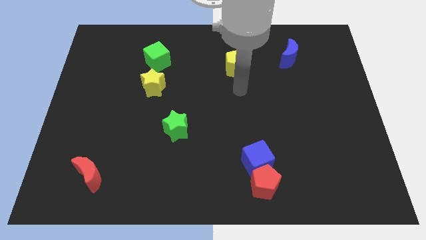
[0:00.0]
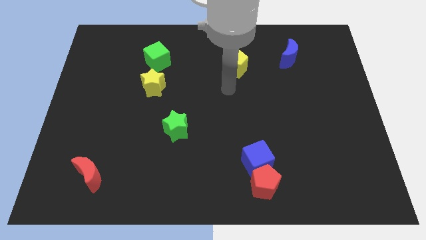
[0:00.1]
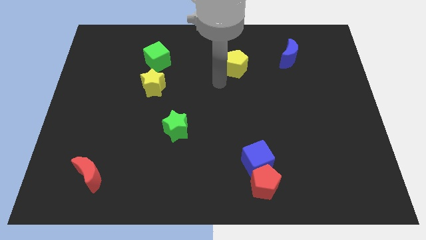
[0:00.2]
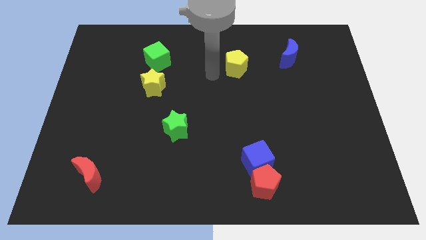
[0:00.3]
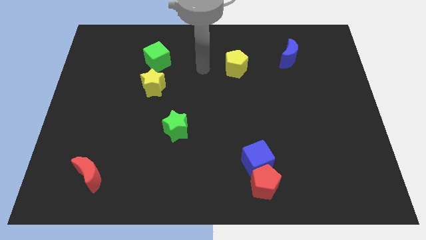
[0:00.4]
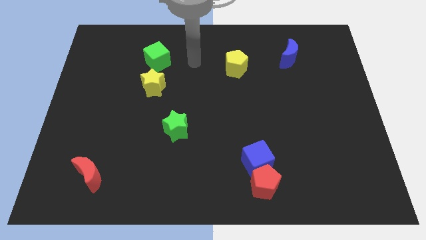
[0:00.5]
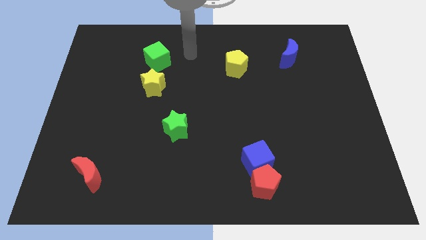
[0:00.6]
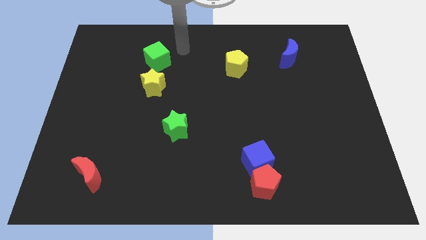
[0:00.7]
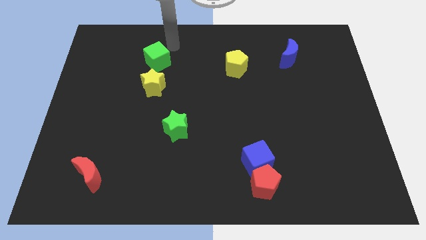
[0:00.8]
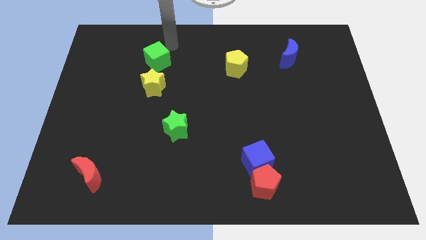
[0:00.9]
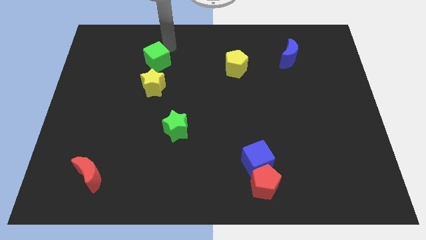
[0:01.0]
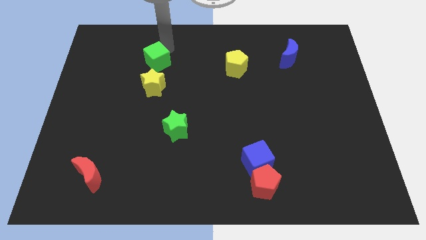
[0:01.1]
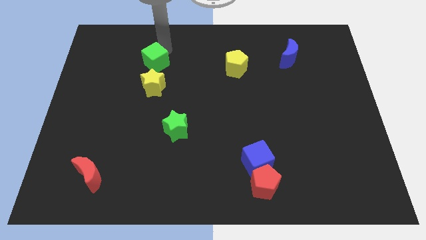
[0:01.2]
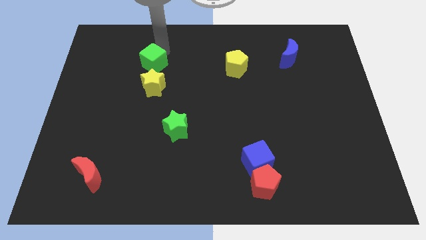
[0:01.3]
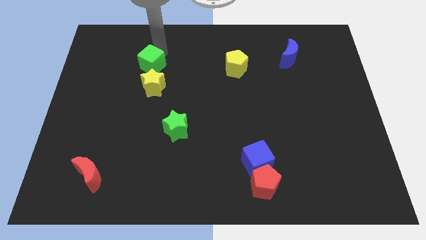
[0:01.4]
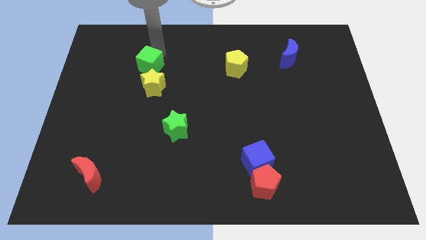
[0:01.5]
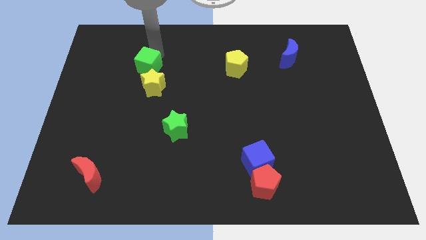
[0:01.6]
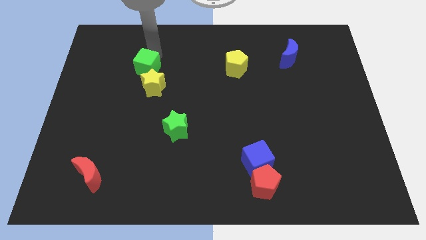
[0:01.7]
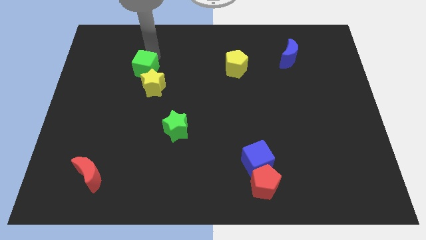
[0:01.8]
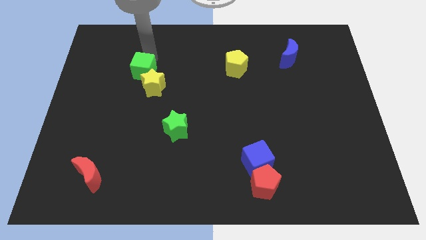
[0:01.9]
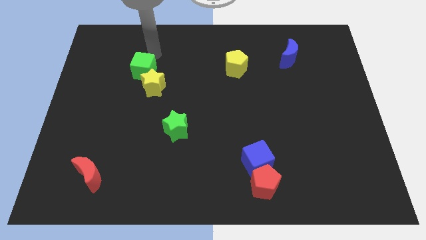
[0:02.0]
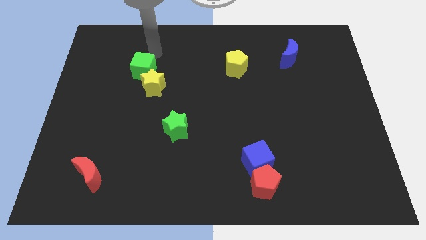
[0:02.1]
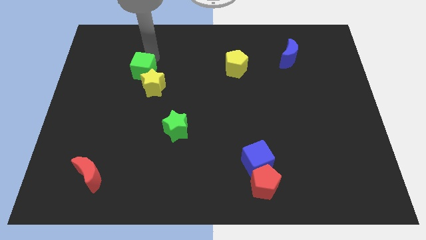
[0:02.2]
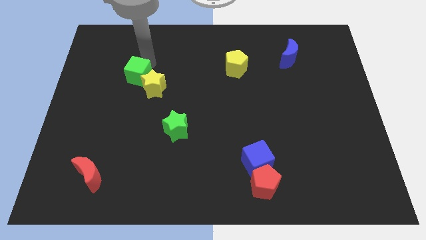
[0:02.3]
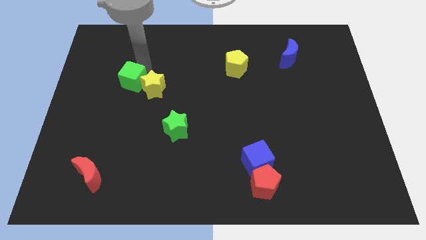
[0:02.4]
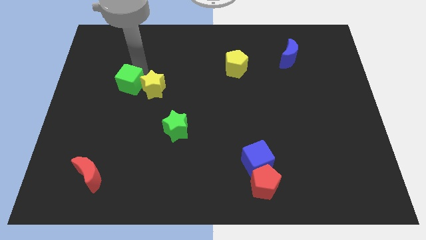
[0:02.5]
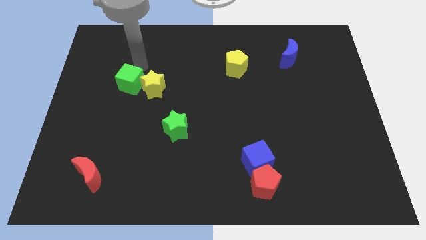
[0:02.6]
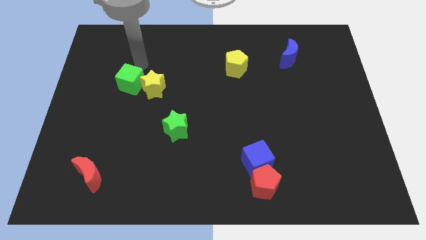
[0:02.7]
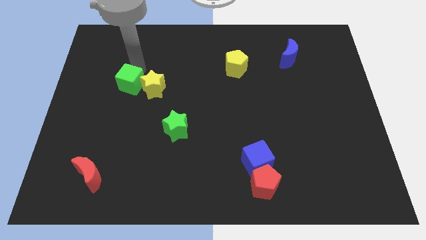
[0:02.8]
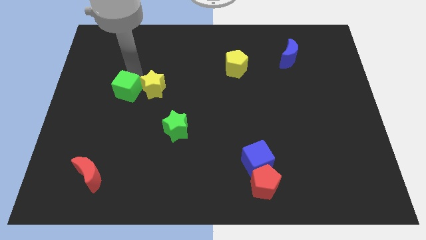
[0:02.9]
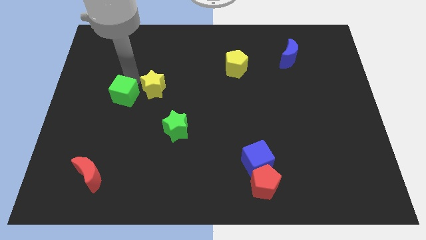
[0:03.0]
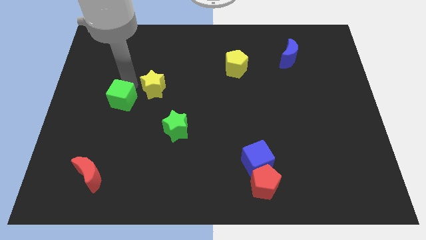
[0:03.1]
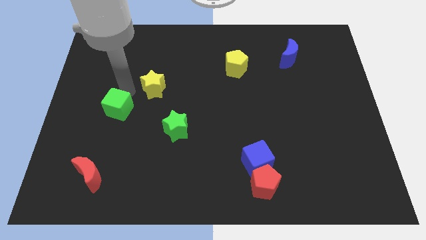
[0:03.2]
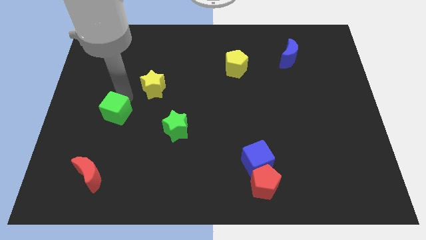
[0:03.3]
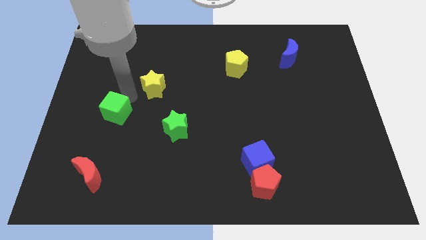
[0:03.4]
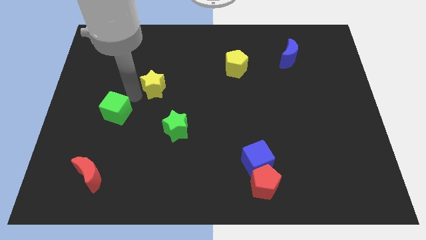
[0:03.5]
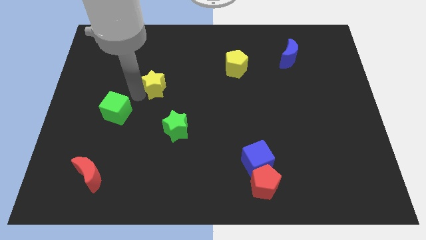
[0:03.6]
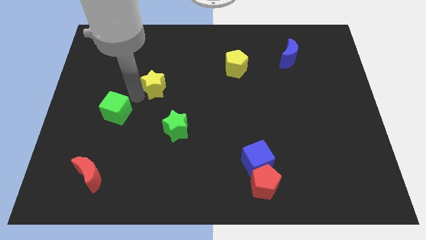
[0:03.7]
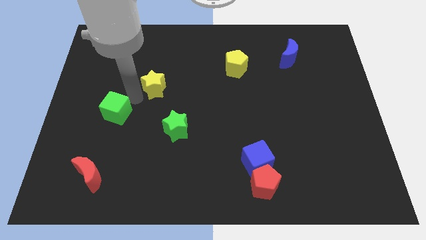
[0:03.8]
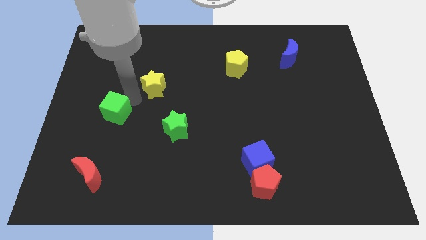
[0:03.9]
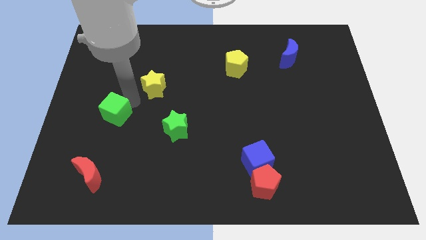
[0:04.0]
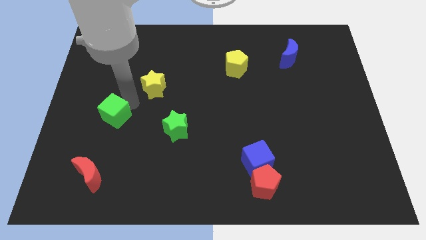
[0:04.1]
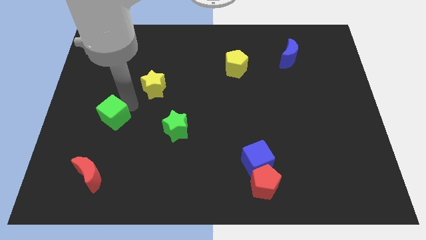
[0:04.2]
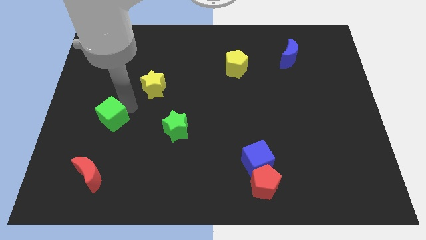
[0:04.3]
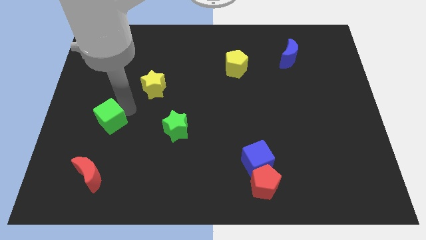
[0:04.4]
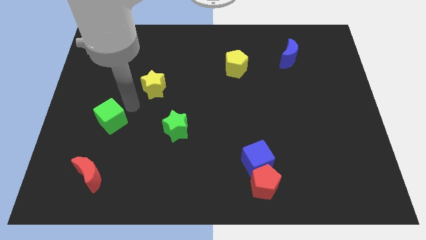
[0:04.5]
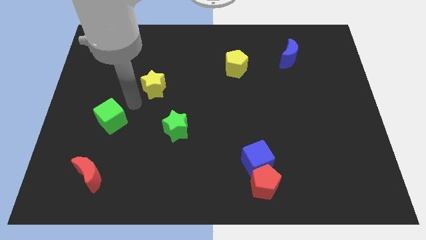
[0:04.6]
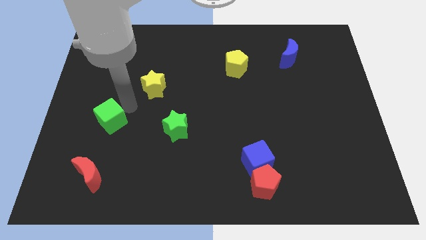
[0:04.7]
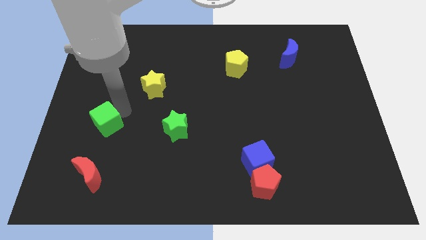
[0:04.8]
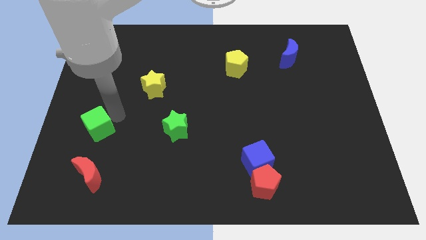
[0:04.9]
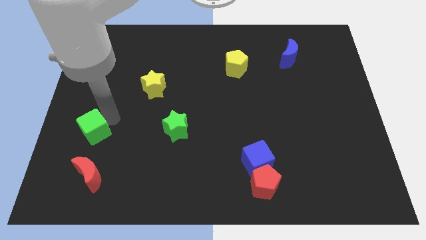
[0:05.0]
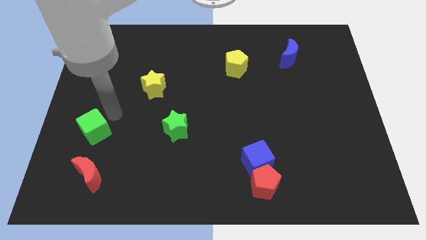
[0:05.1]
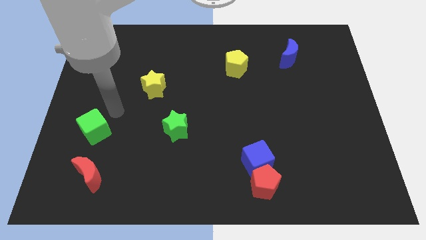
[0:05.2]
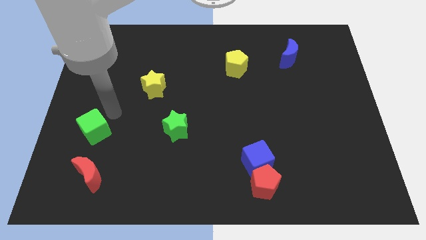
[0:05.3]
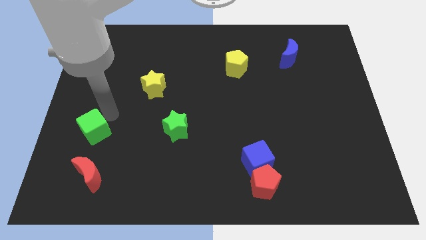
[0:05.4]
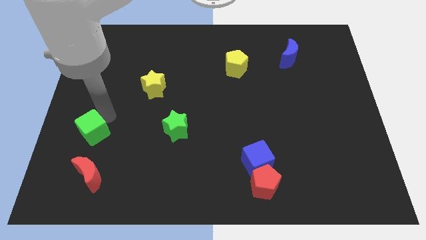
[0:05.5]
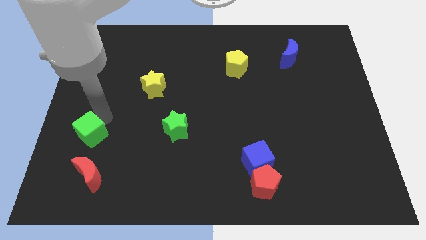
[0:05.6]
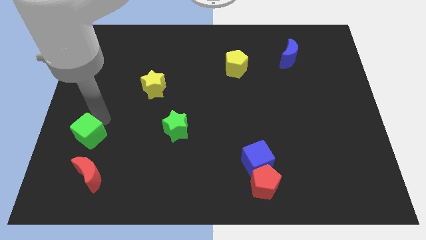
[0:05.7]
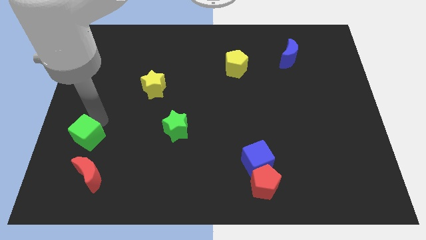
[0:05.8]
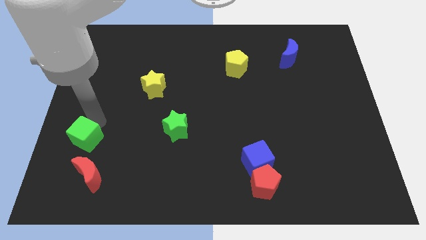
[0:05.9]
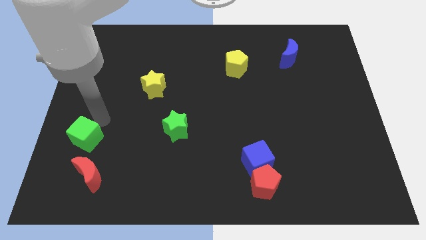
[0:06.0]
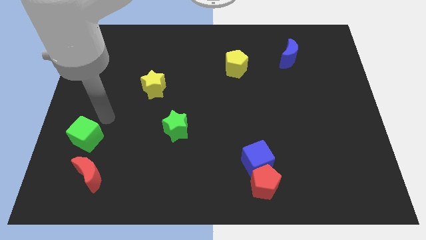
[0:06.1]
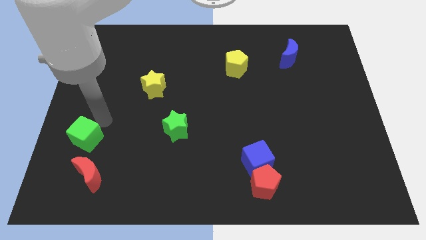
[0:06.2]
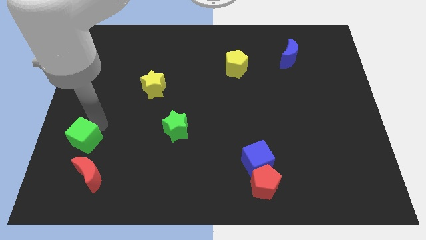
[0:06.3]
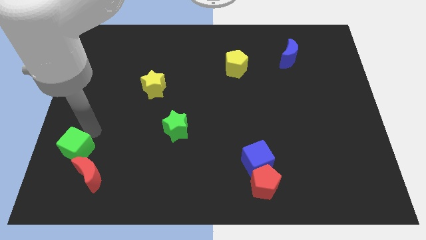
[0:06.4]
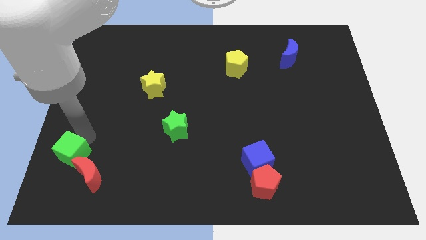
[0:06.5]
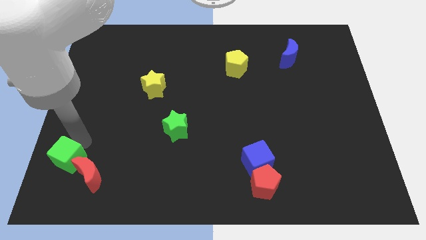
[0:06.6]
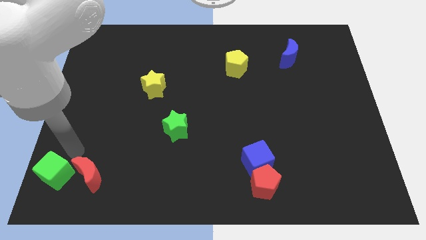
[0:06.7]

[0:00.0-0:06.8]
slide the green cube to the lower left corner
